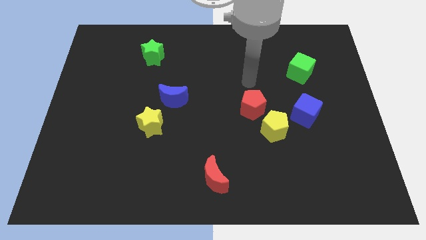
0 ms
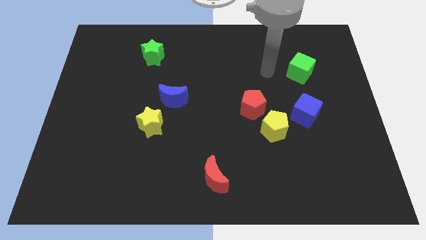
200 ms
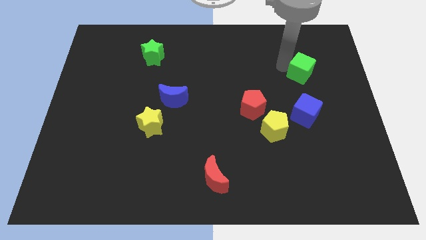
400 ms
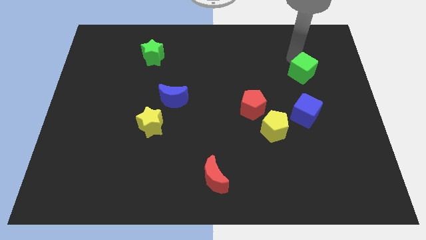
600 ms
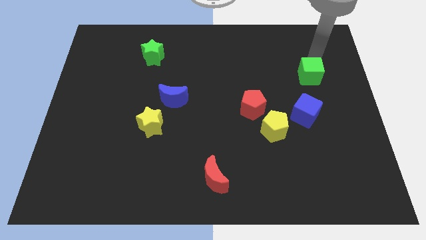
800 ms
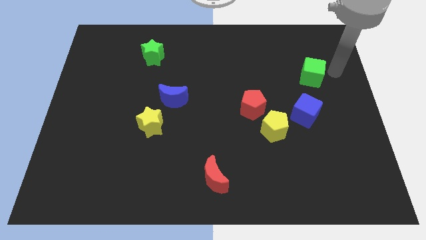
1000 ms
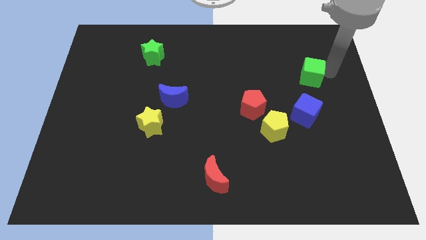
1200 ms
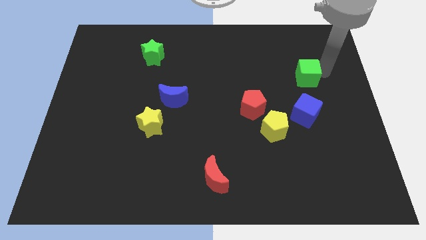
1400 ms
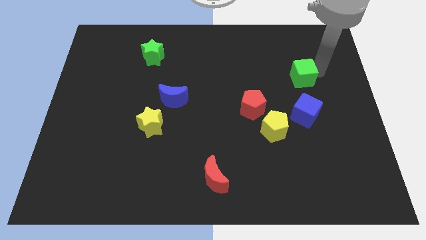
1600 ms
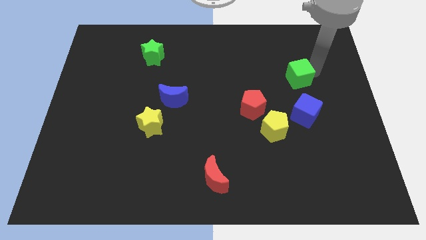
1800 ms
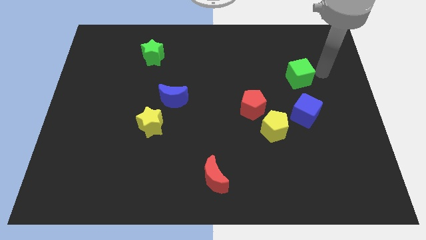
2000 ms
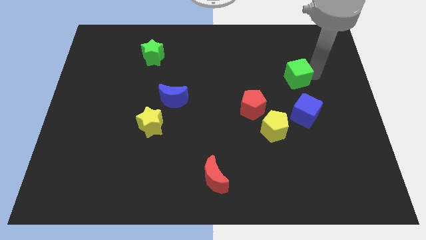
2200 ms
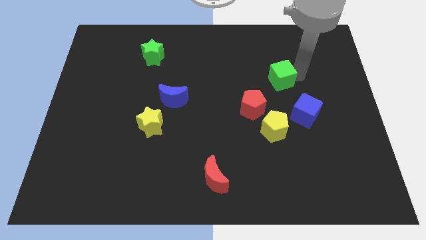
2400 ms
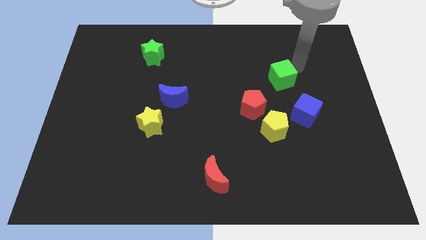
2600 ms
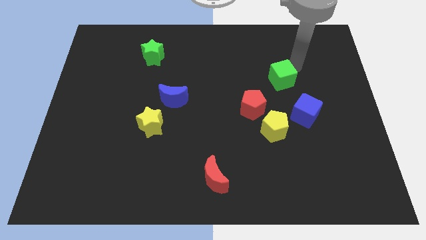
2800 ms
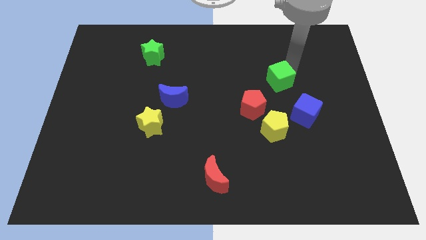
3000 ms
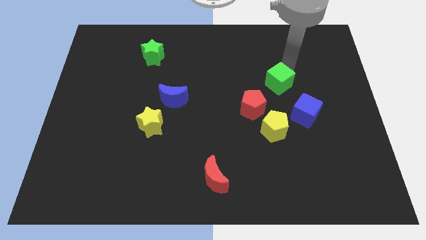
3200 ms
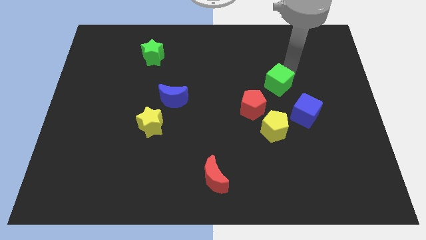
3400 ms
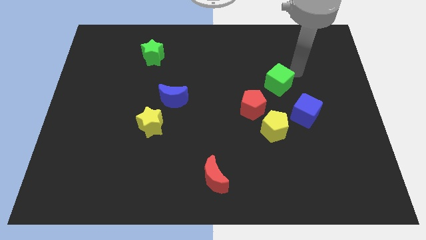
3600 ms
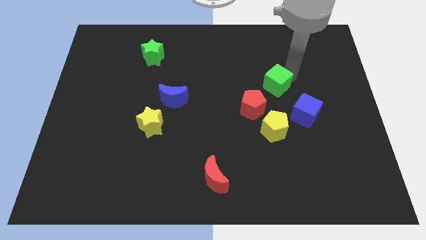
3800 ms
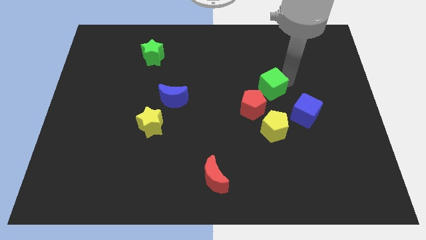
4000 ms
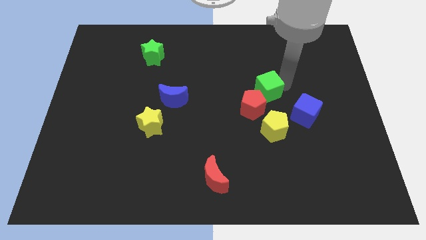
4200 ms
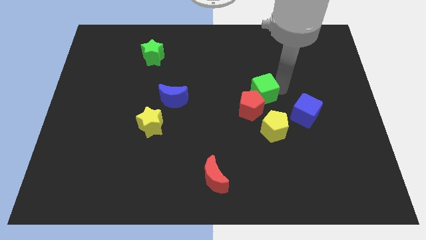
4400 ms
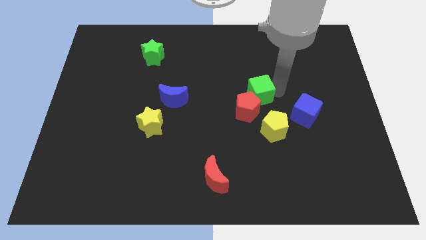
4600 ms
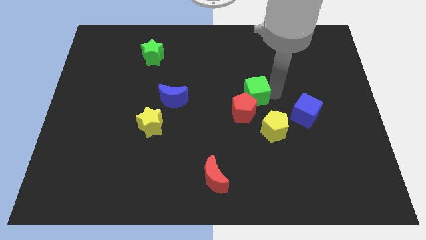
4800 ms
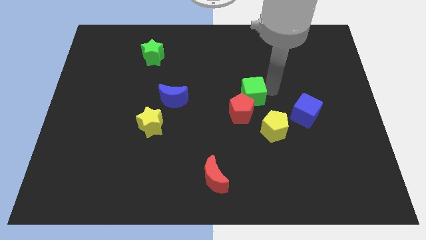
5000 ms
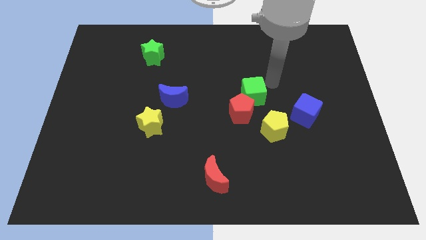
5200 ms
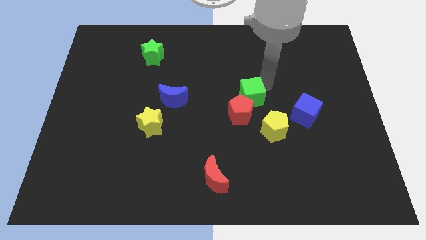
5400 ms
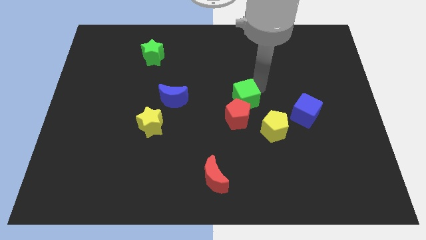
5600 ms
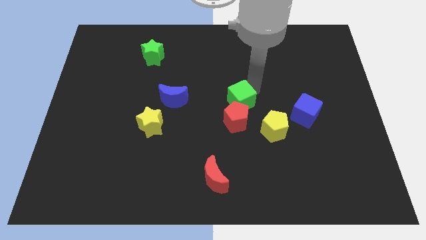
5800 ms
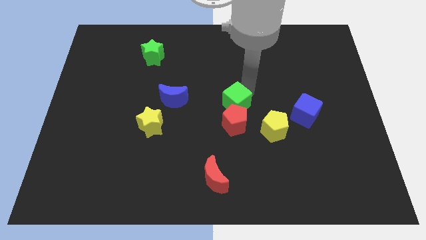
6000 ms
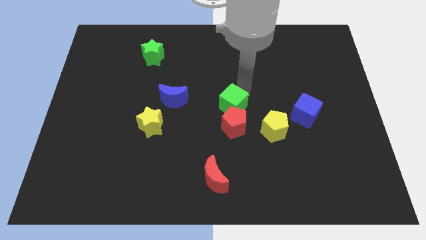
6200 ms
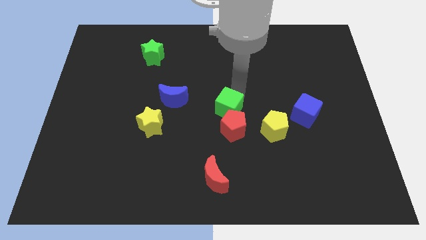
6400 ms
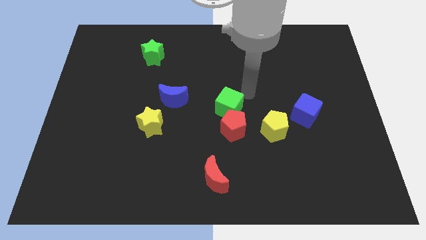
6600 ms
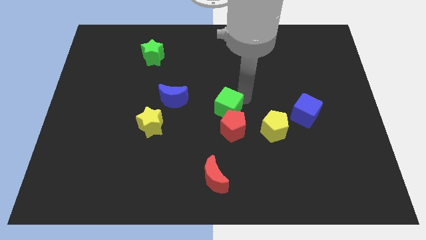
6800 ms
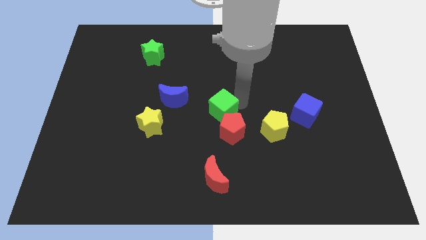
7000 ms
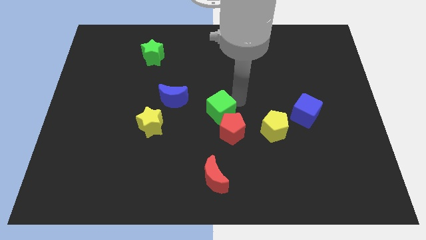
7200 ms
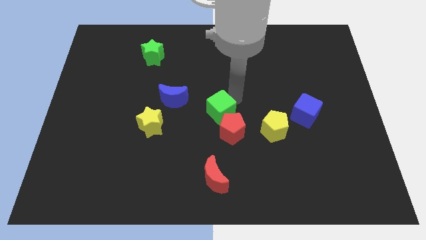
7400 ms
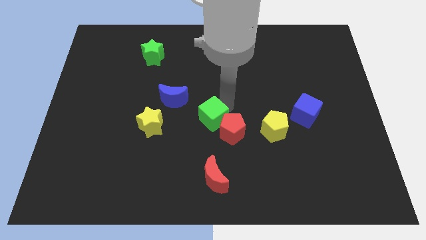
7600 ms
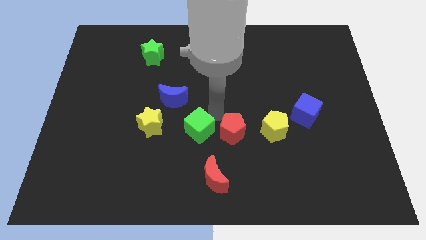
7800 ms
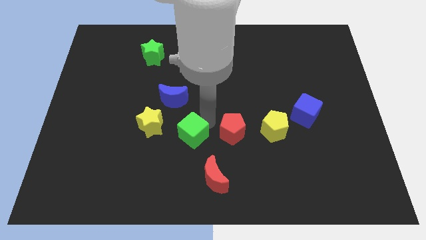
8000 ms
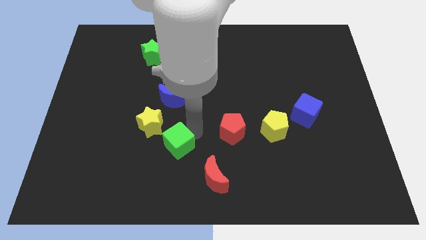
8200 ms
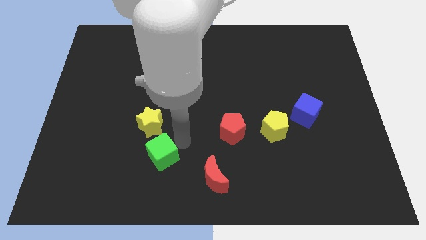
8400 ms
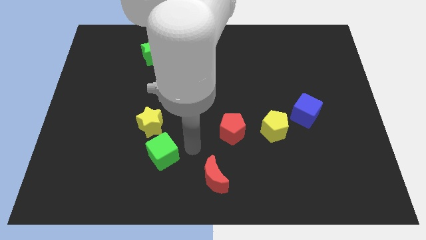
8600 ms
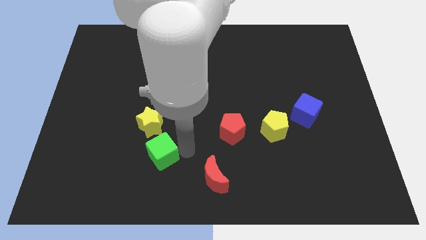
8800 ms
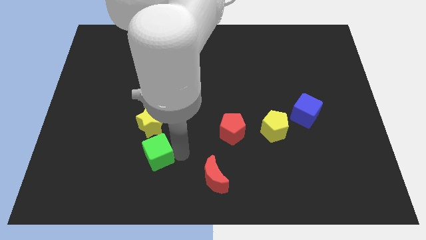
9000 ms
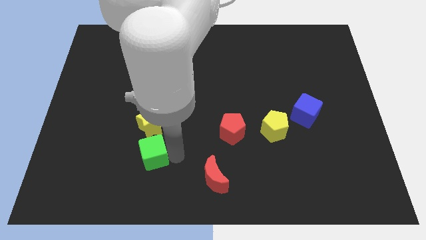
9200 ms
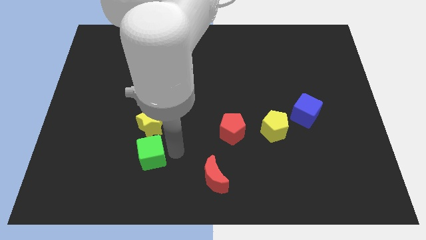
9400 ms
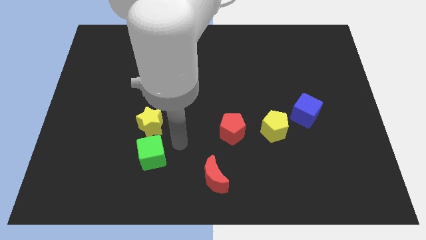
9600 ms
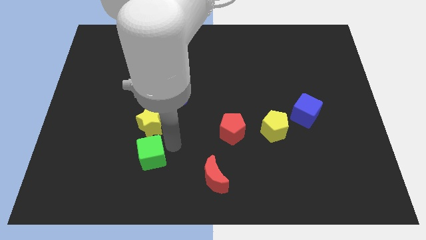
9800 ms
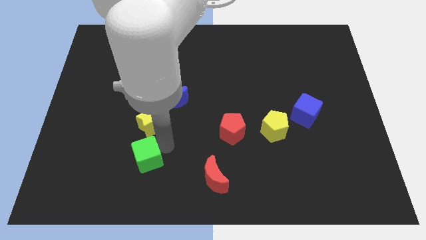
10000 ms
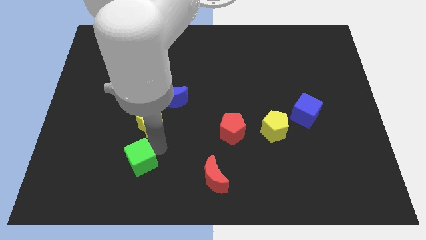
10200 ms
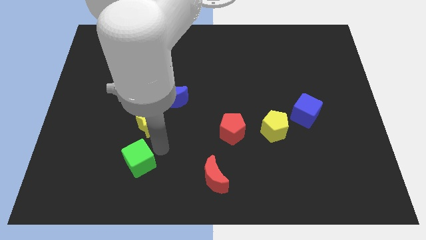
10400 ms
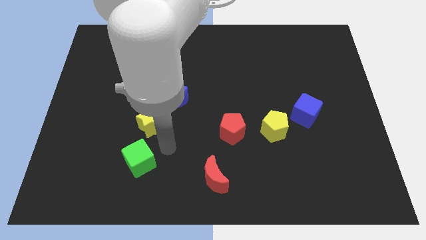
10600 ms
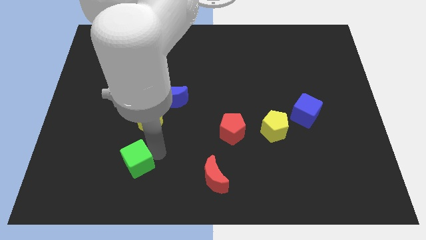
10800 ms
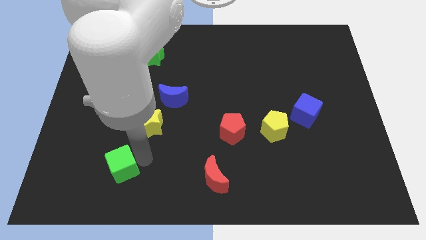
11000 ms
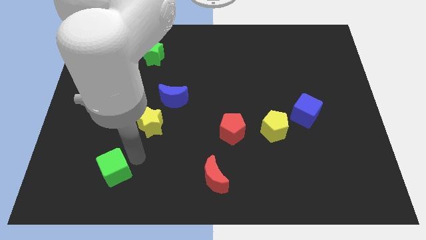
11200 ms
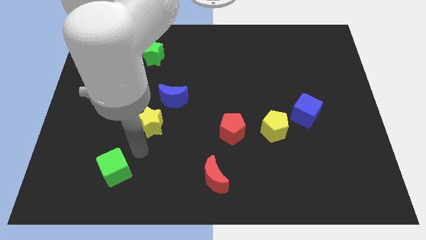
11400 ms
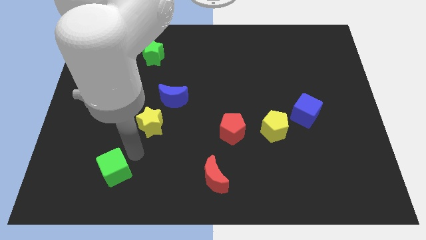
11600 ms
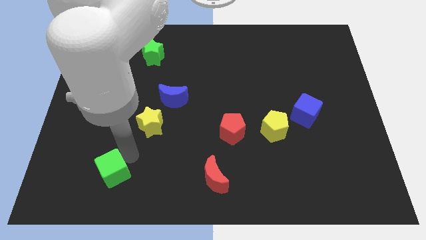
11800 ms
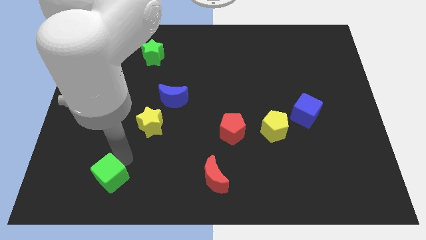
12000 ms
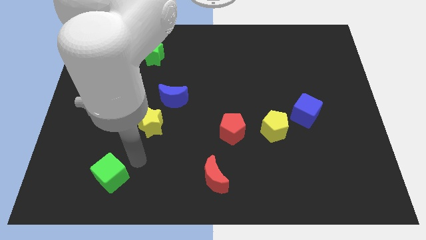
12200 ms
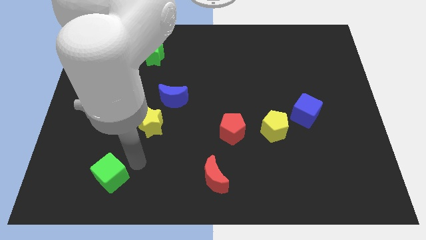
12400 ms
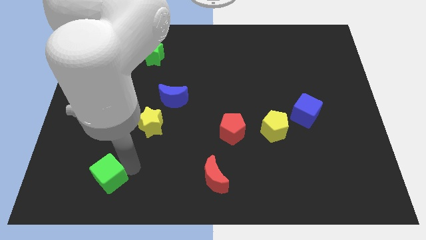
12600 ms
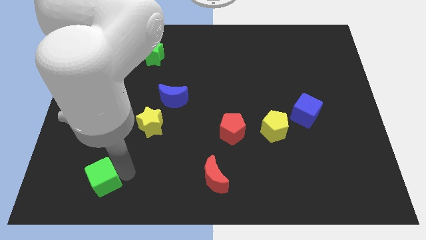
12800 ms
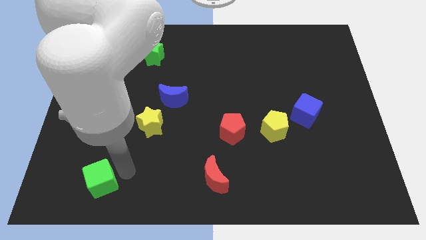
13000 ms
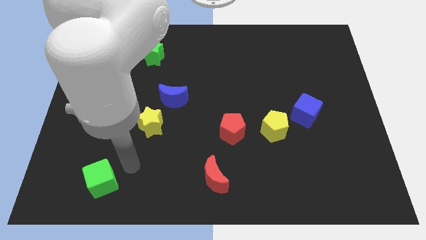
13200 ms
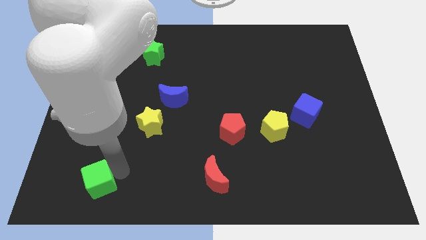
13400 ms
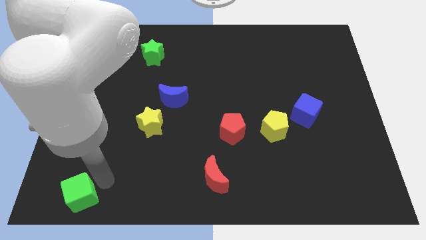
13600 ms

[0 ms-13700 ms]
slide the green cube to the lower left corner
